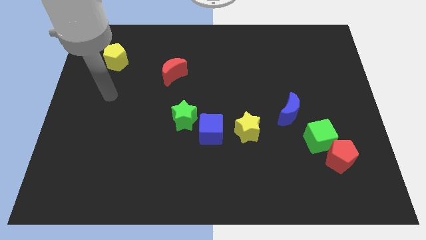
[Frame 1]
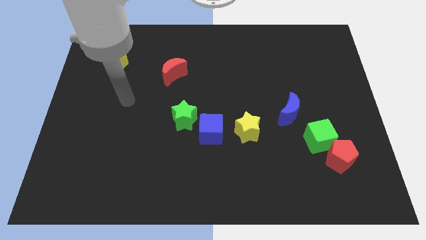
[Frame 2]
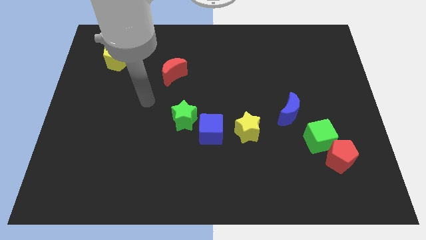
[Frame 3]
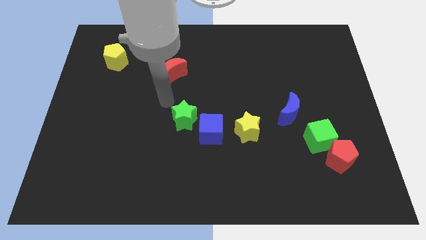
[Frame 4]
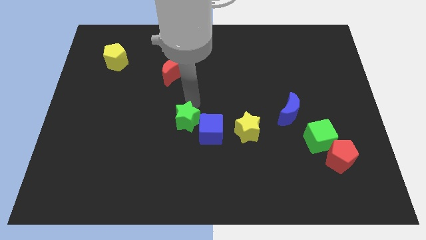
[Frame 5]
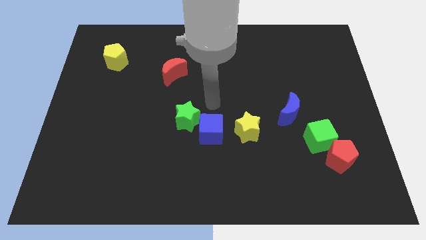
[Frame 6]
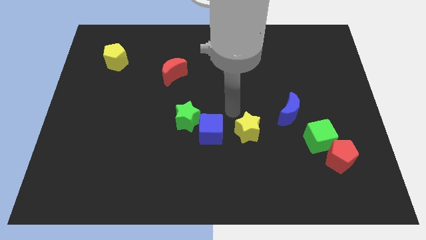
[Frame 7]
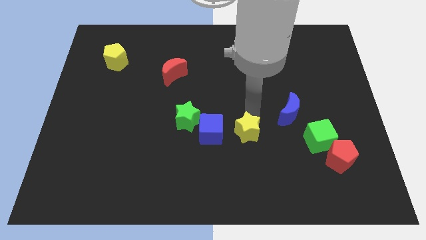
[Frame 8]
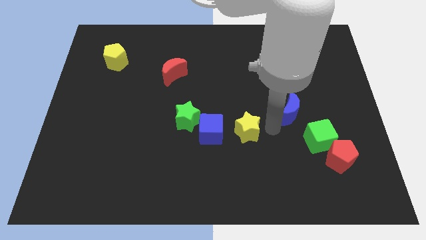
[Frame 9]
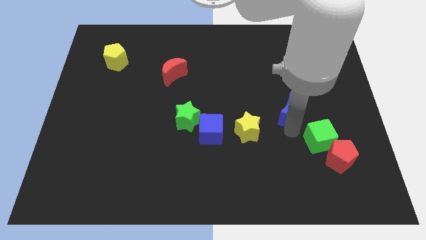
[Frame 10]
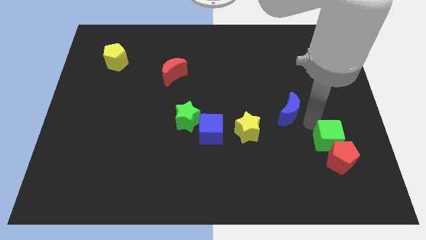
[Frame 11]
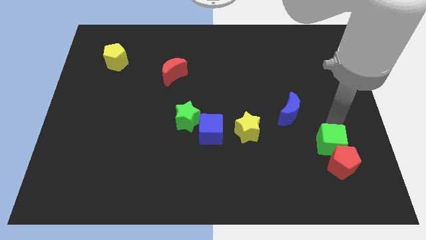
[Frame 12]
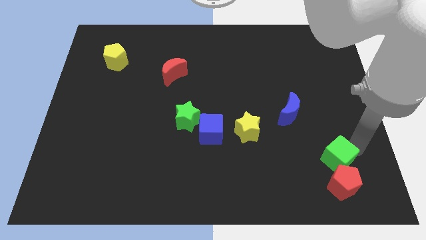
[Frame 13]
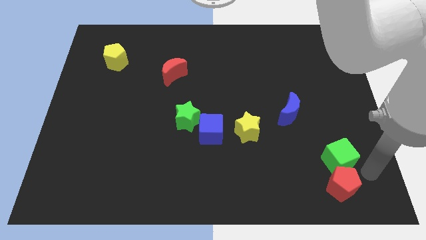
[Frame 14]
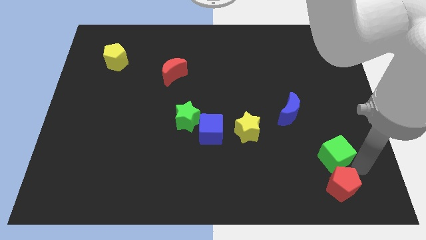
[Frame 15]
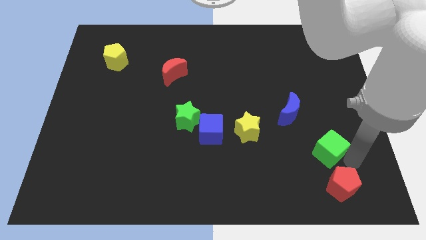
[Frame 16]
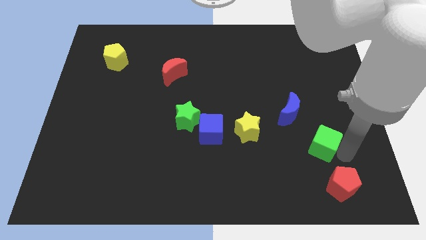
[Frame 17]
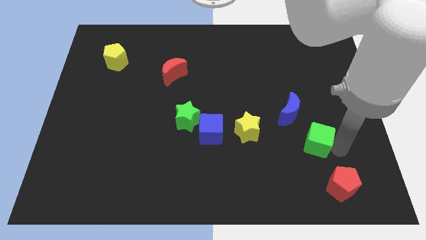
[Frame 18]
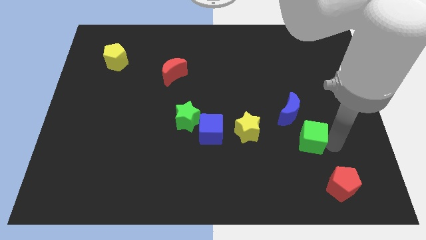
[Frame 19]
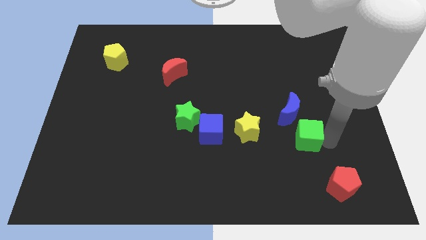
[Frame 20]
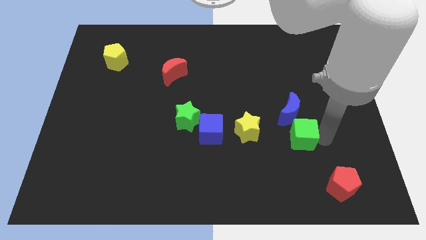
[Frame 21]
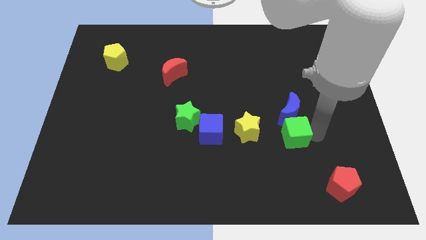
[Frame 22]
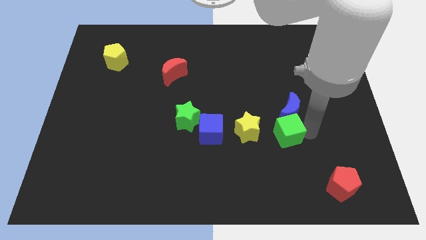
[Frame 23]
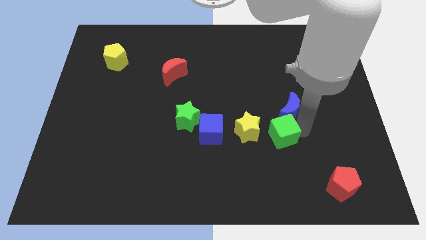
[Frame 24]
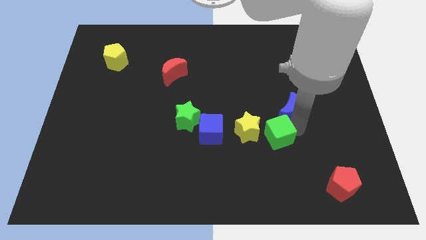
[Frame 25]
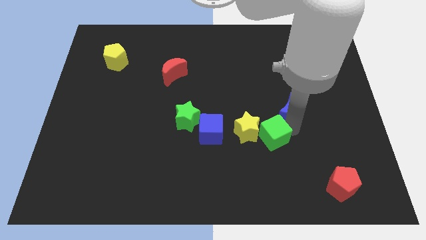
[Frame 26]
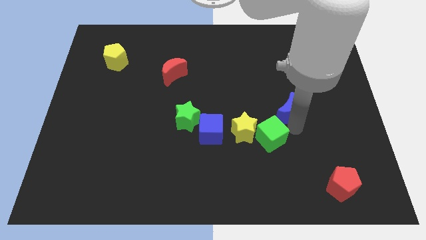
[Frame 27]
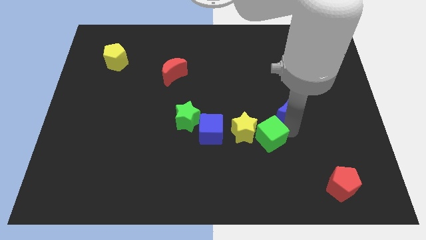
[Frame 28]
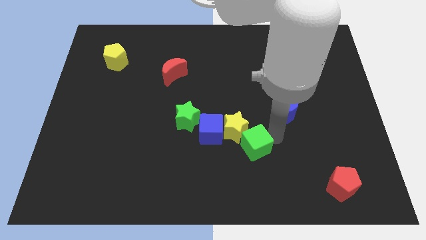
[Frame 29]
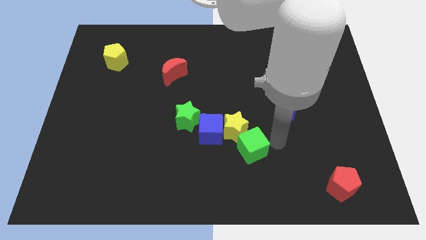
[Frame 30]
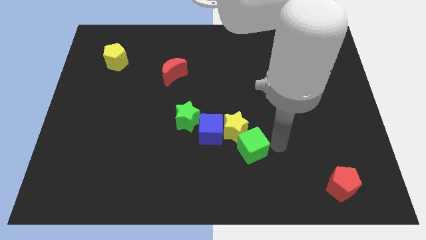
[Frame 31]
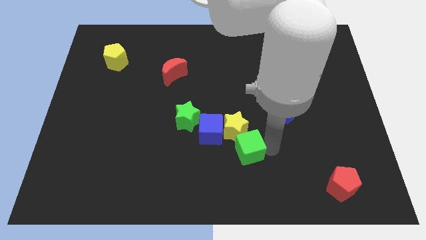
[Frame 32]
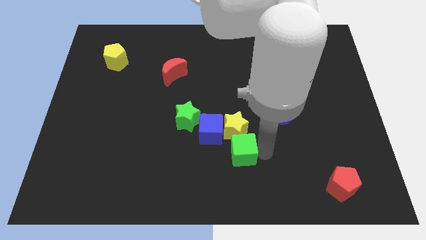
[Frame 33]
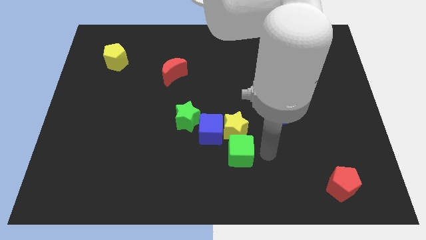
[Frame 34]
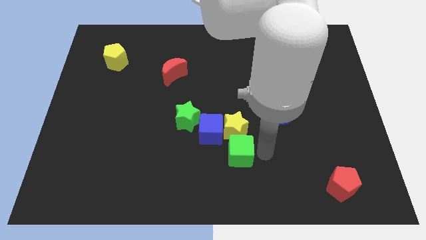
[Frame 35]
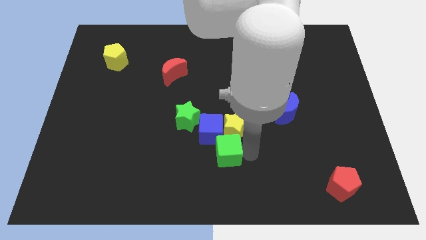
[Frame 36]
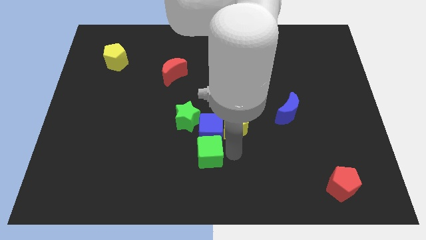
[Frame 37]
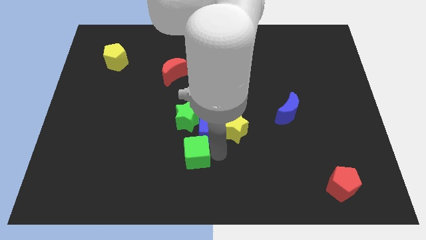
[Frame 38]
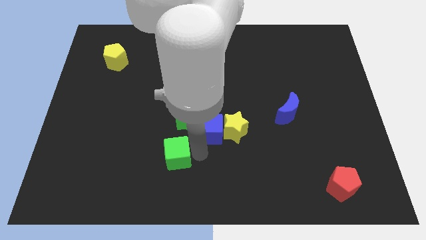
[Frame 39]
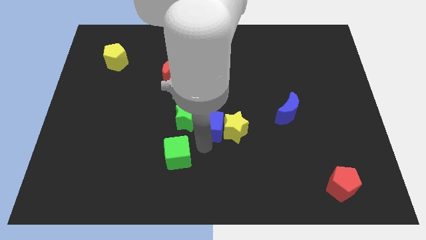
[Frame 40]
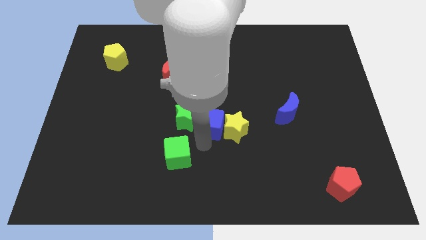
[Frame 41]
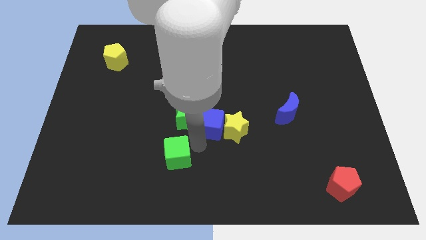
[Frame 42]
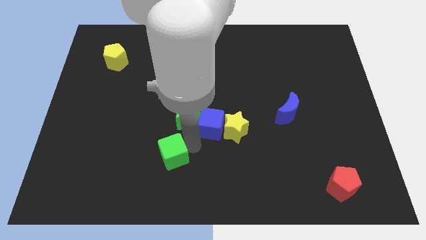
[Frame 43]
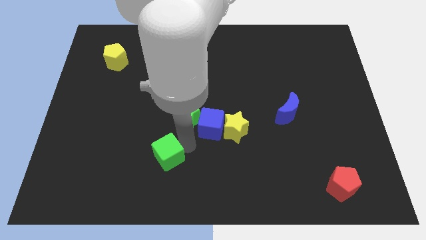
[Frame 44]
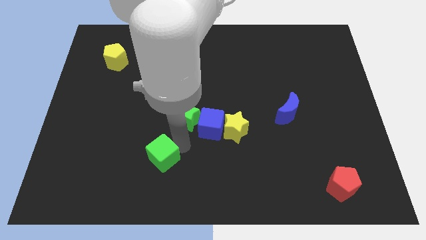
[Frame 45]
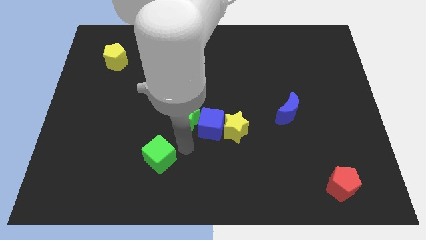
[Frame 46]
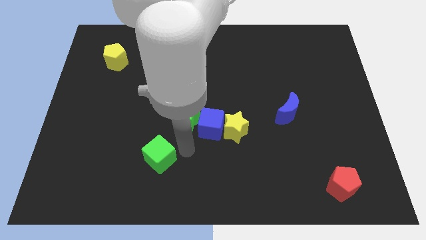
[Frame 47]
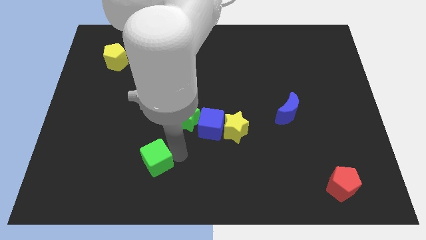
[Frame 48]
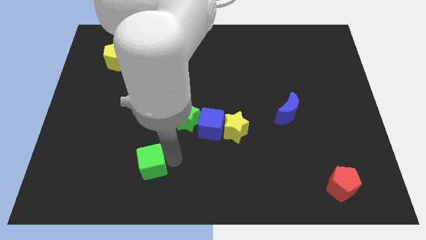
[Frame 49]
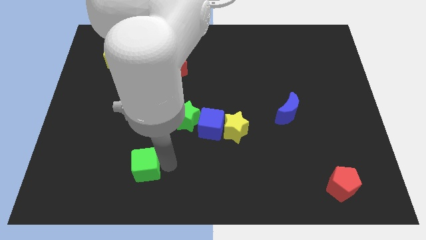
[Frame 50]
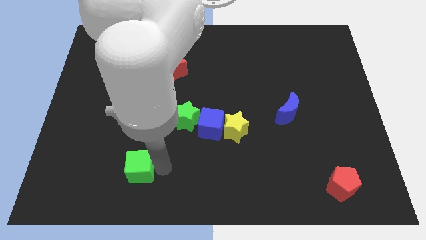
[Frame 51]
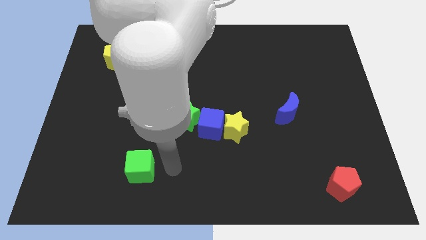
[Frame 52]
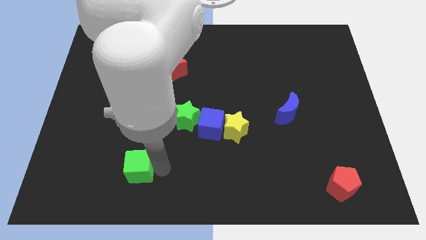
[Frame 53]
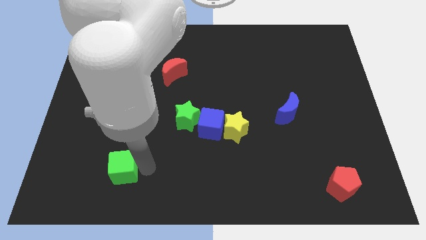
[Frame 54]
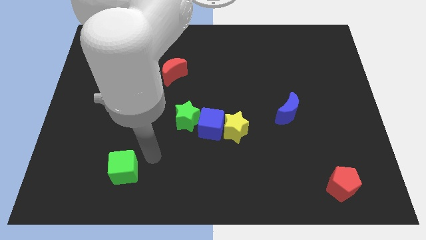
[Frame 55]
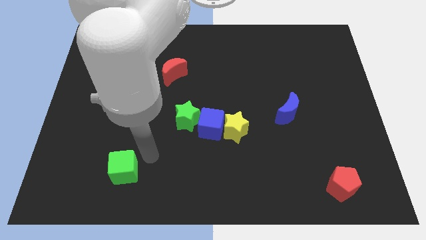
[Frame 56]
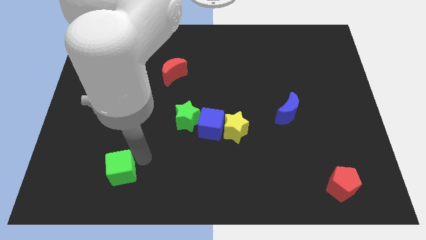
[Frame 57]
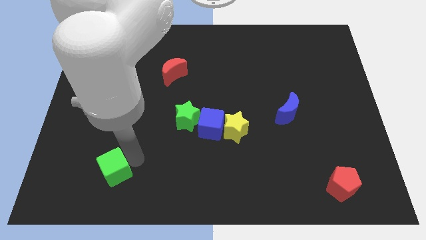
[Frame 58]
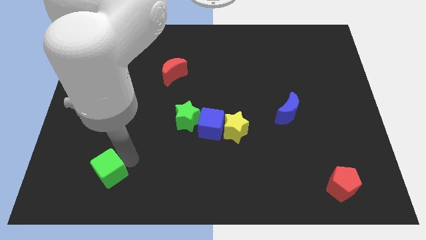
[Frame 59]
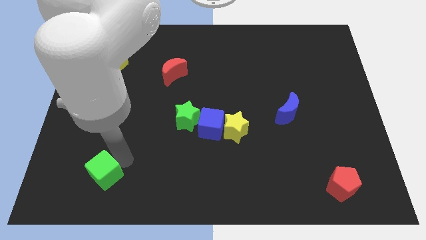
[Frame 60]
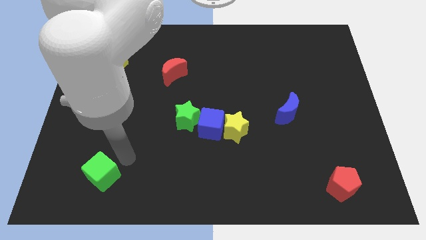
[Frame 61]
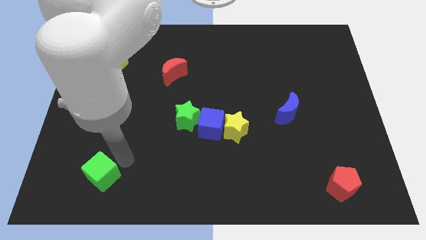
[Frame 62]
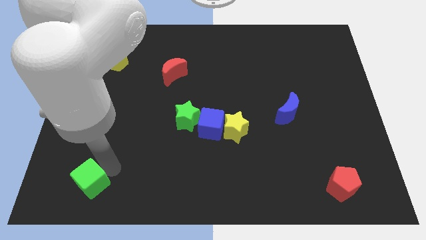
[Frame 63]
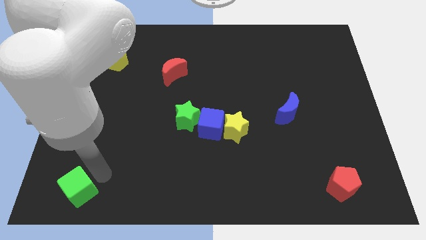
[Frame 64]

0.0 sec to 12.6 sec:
move the green cube to the bottom left corner

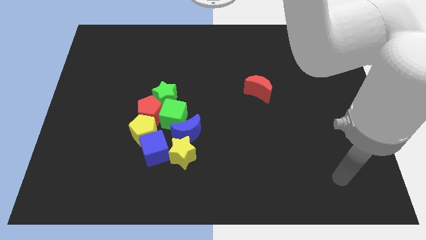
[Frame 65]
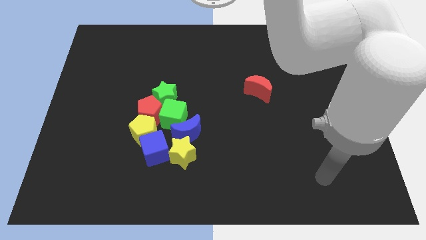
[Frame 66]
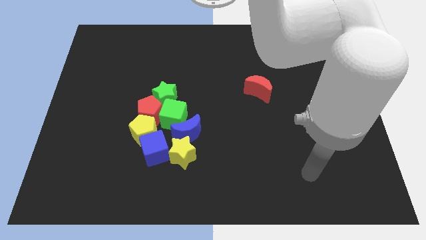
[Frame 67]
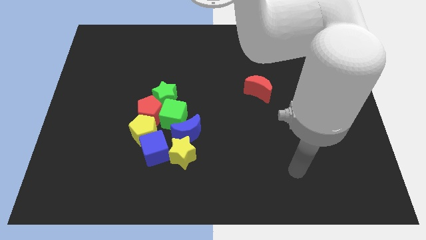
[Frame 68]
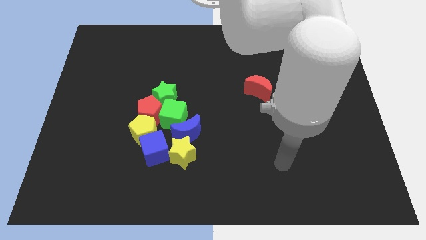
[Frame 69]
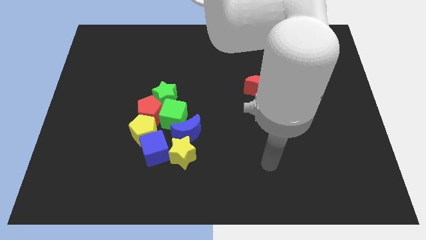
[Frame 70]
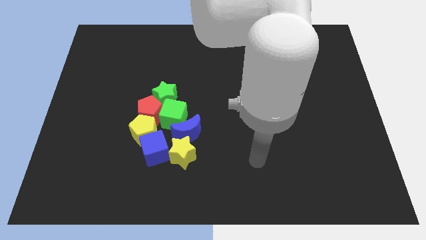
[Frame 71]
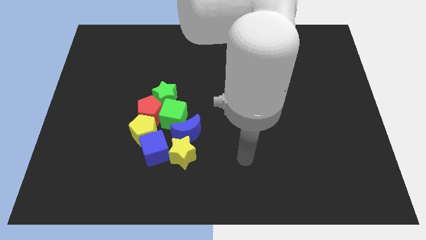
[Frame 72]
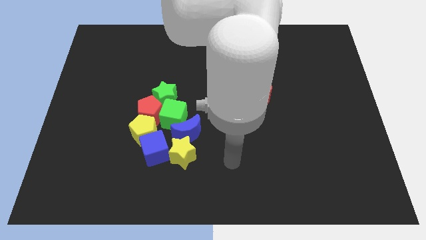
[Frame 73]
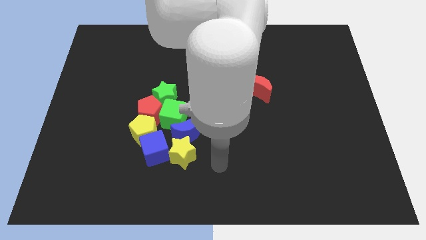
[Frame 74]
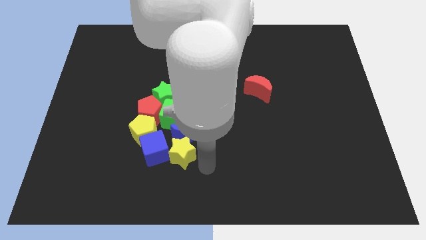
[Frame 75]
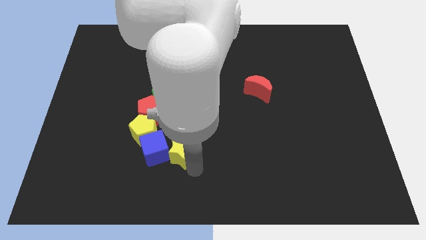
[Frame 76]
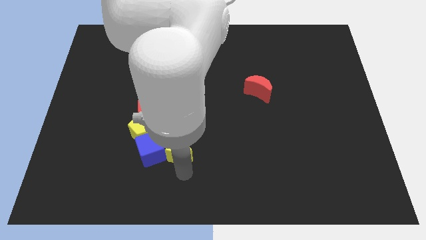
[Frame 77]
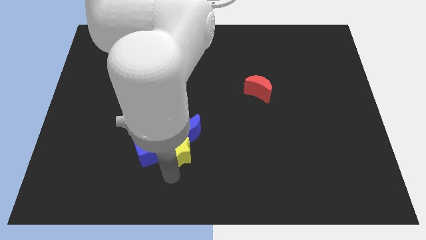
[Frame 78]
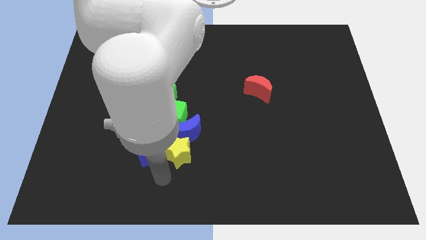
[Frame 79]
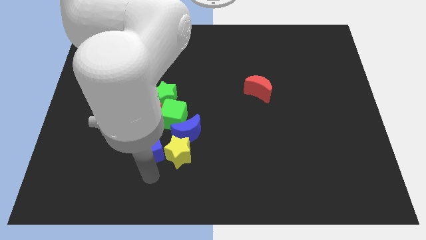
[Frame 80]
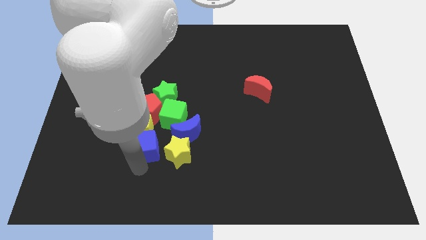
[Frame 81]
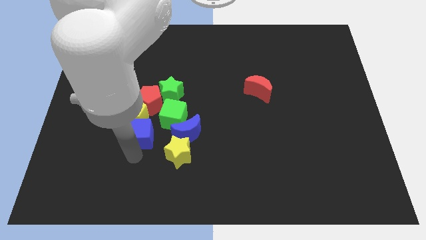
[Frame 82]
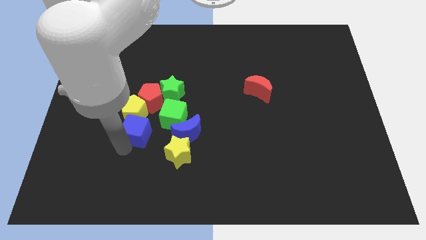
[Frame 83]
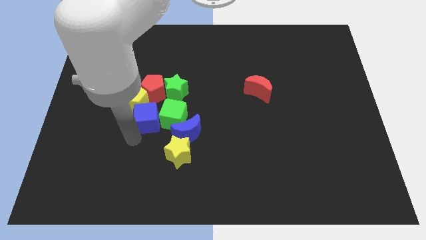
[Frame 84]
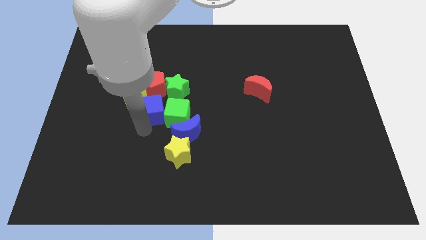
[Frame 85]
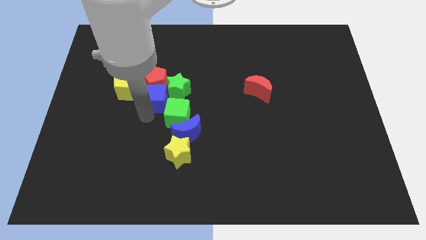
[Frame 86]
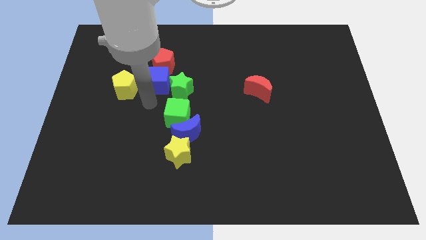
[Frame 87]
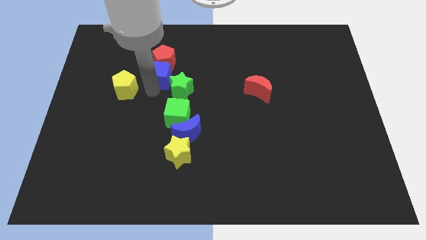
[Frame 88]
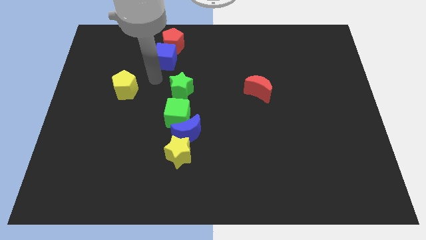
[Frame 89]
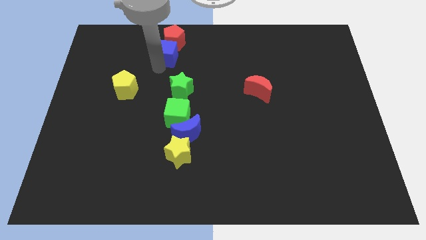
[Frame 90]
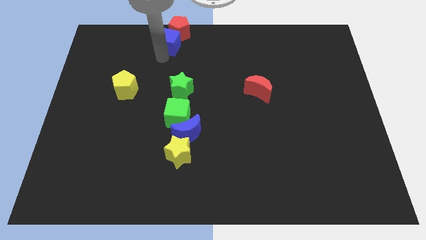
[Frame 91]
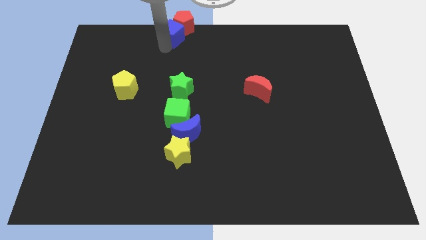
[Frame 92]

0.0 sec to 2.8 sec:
move the blue cube to the towards your base
